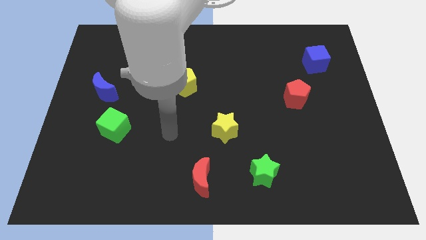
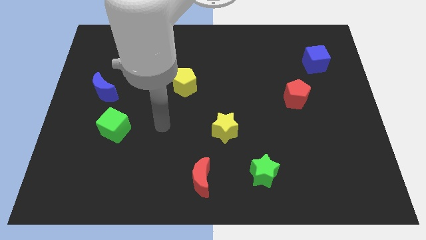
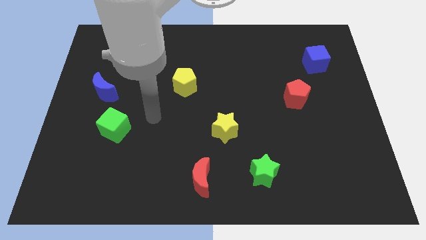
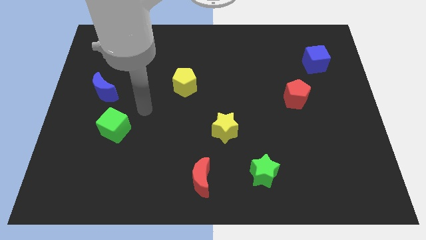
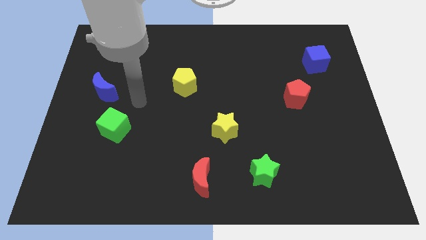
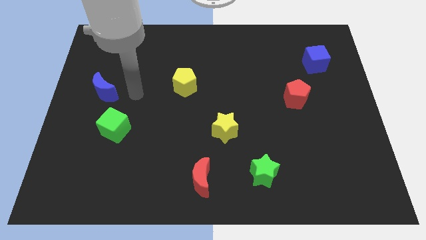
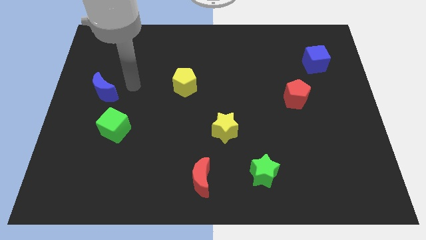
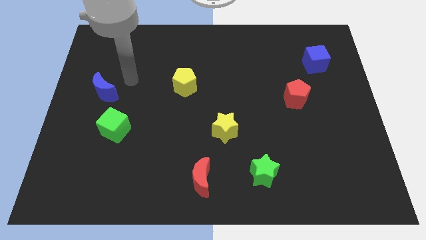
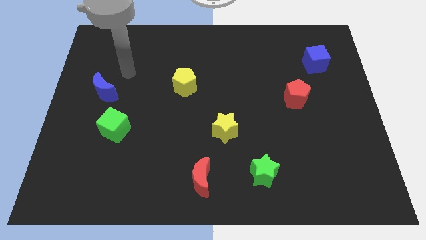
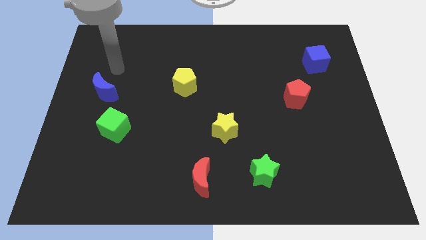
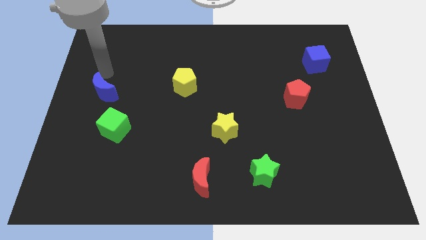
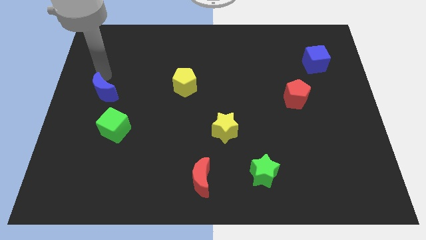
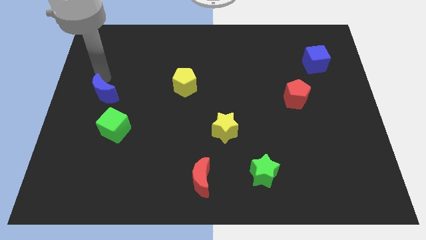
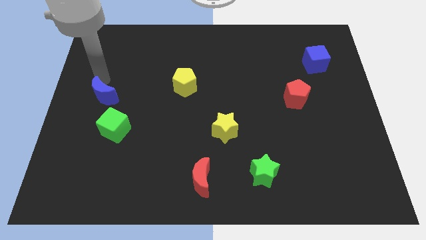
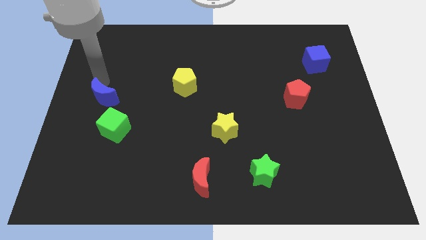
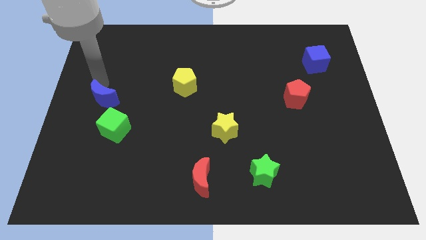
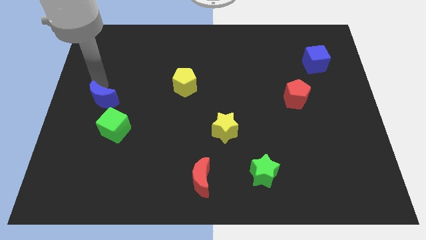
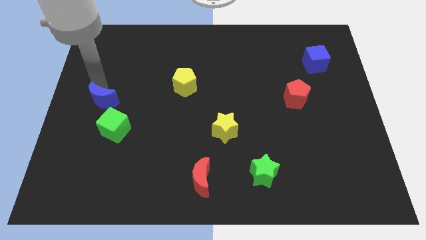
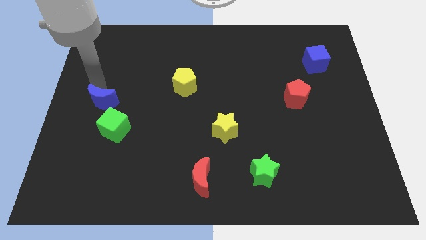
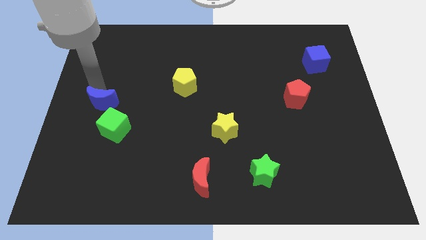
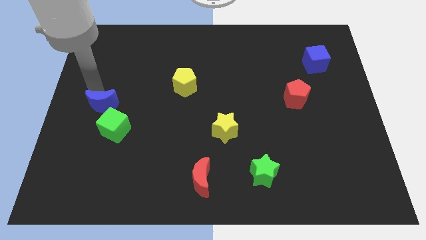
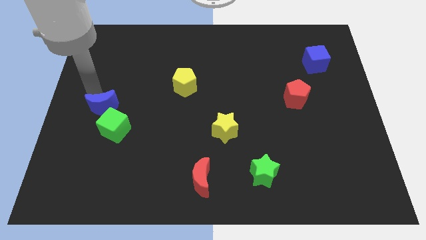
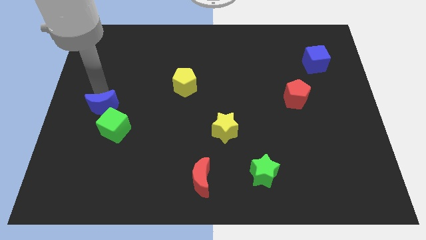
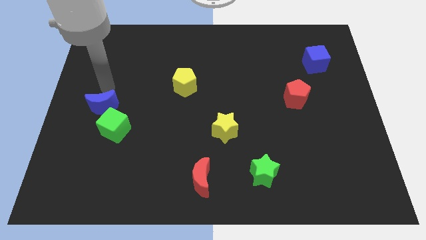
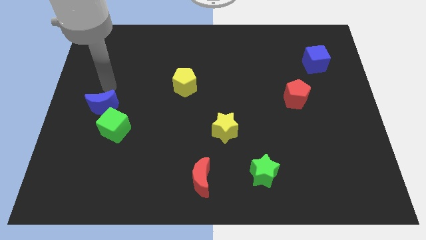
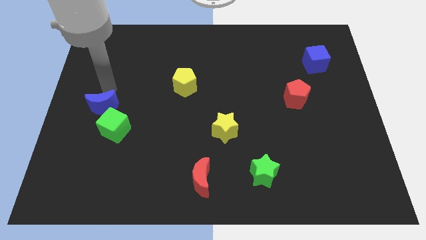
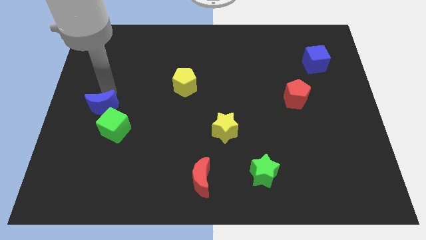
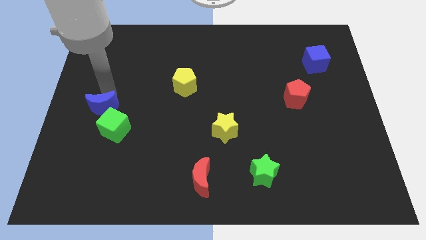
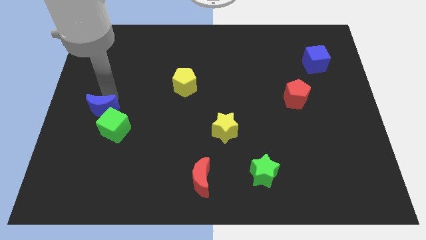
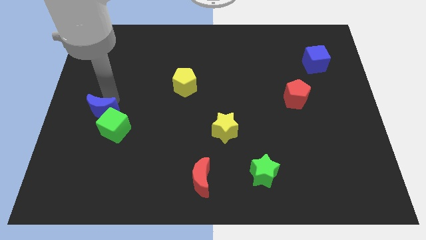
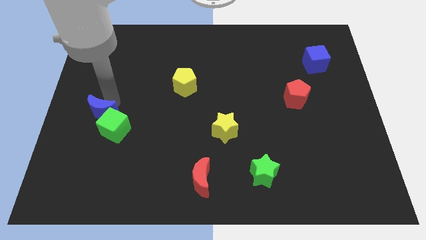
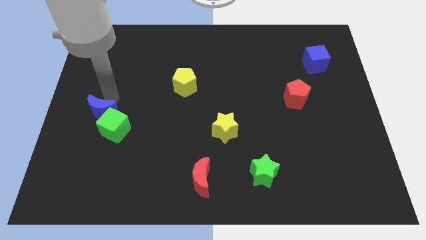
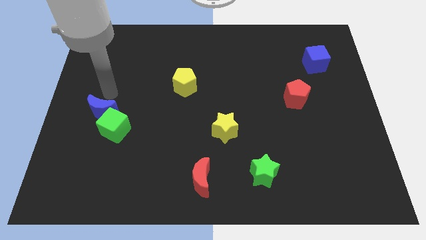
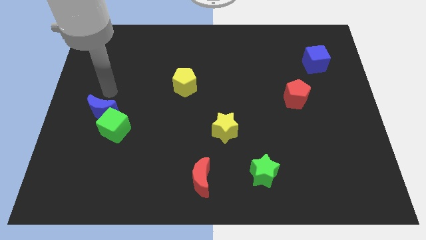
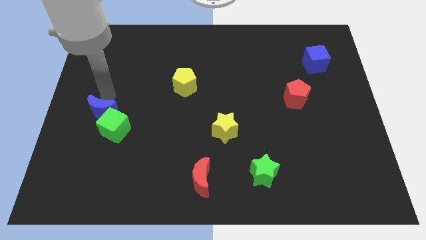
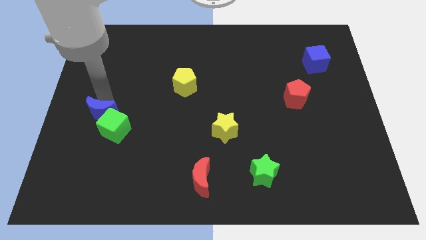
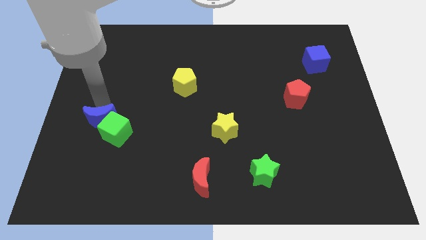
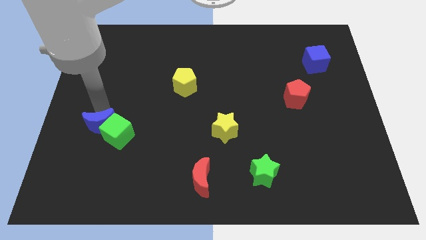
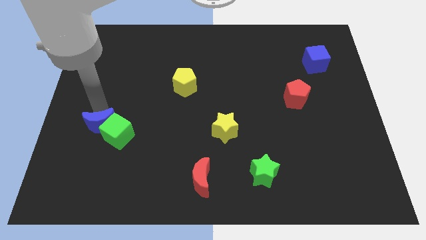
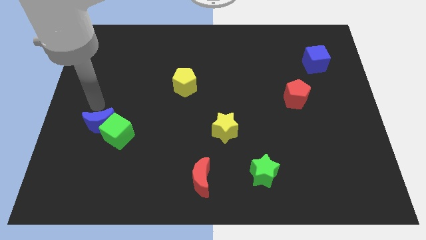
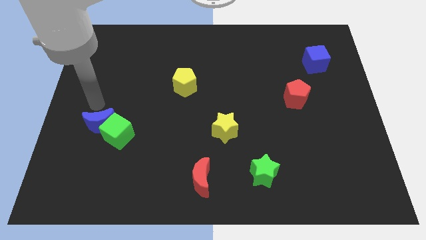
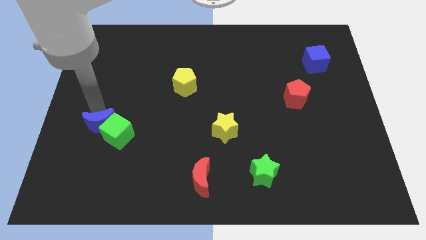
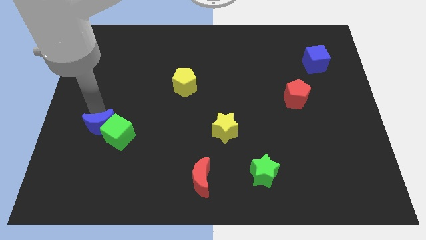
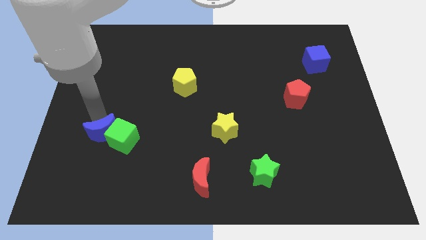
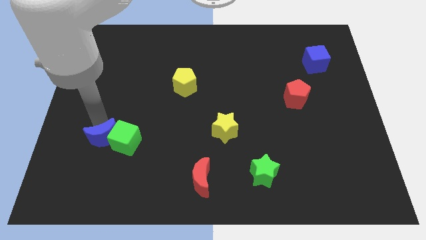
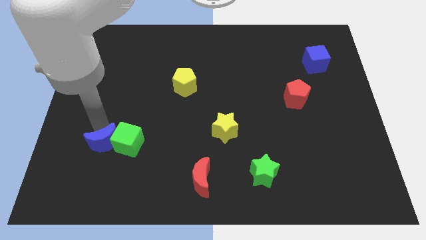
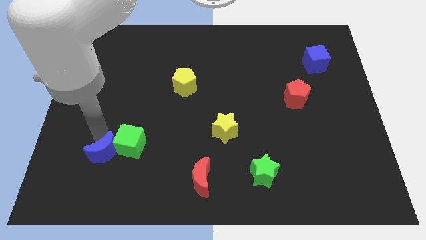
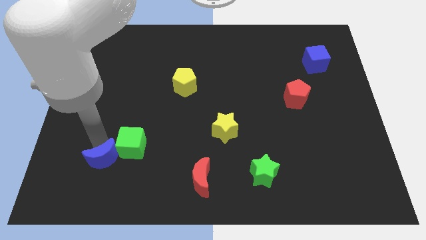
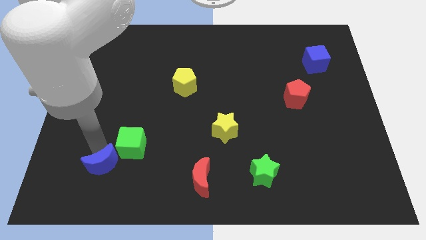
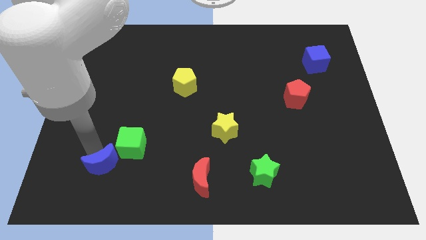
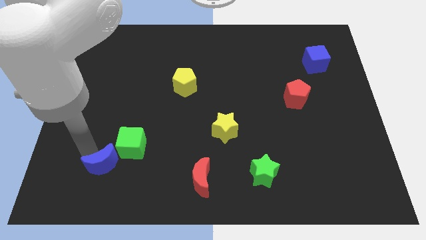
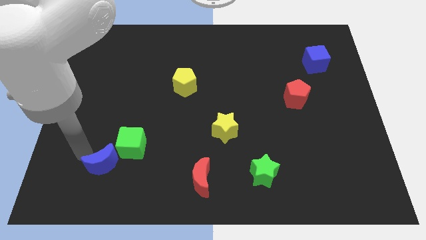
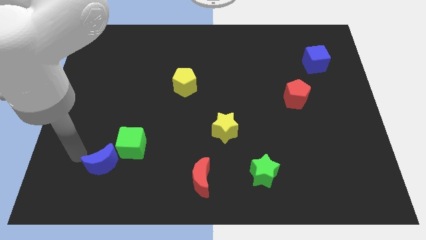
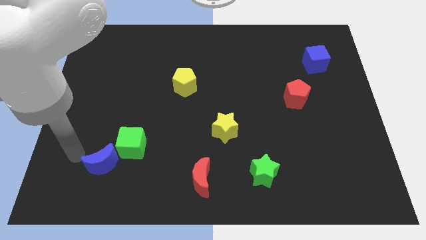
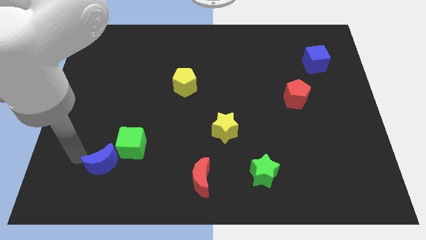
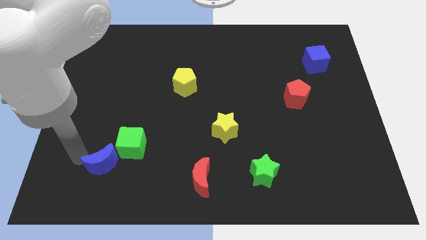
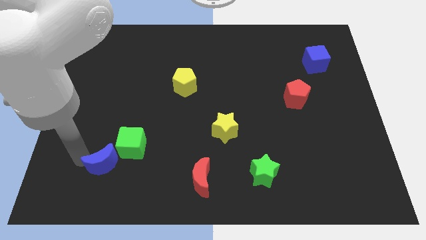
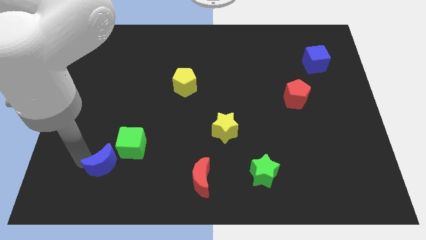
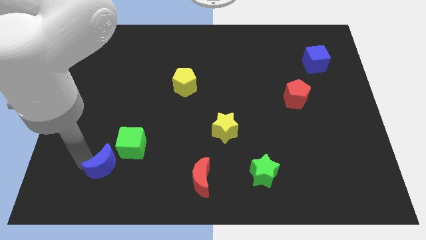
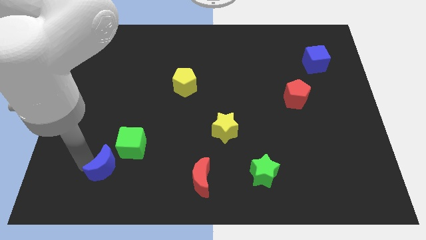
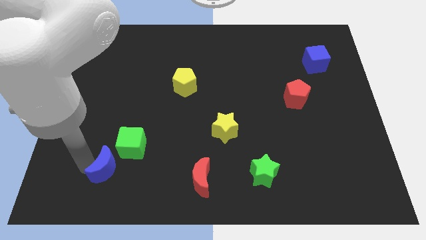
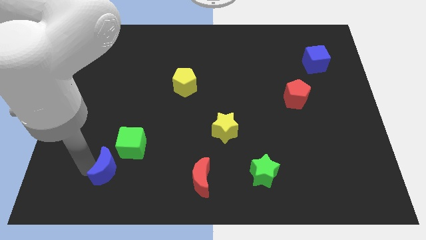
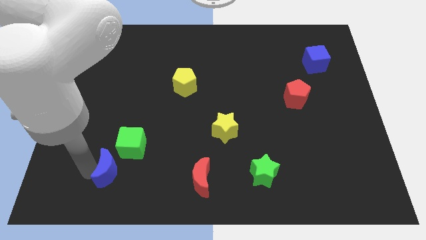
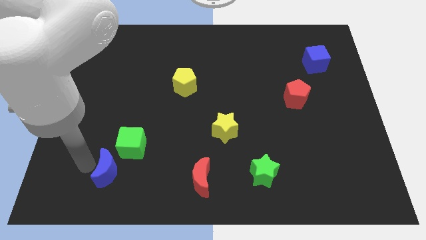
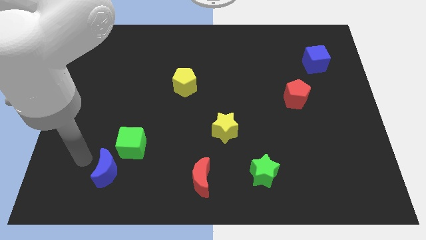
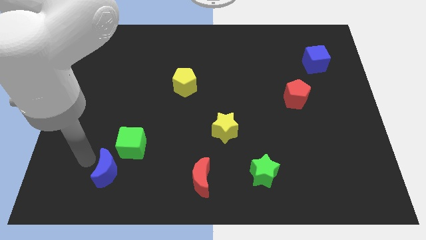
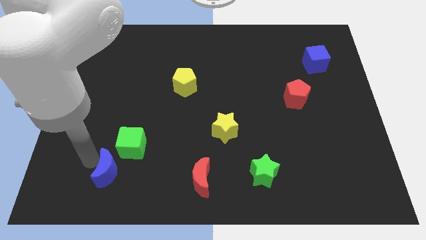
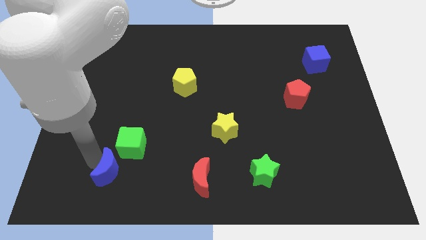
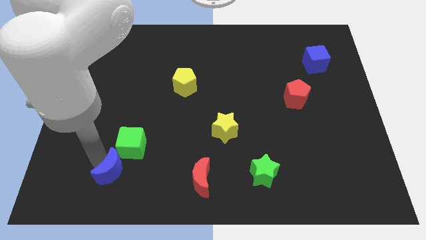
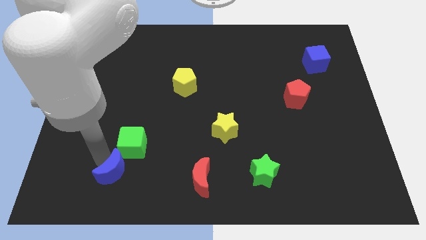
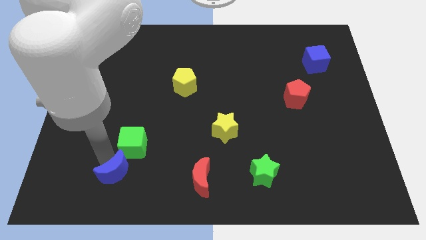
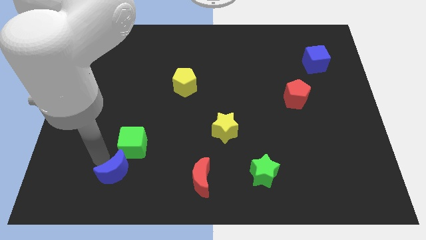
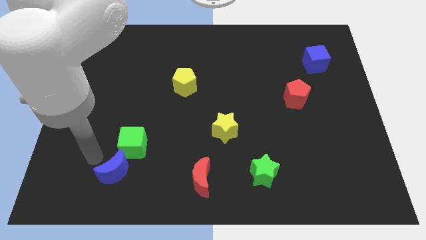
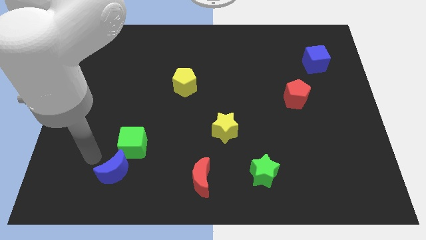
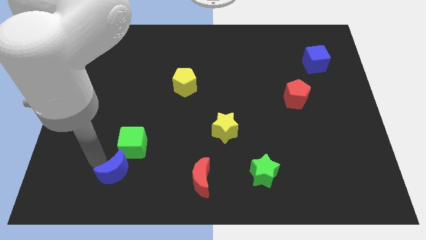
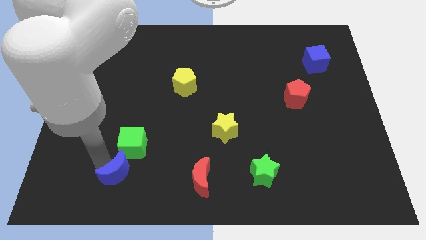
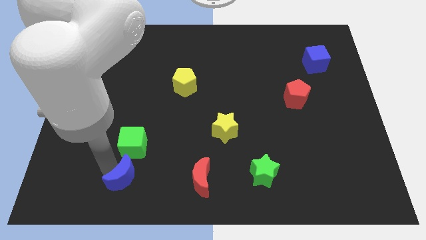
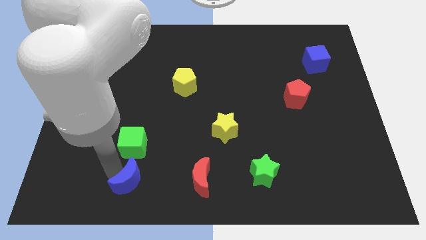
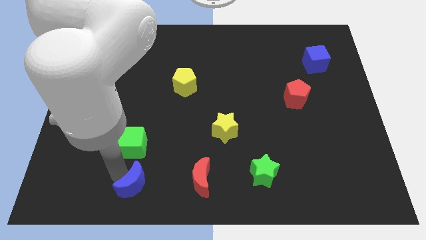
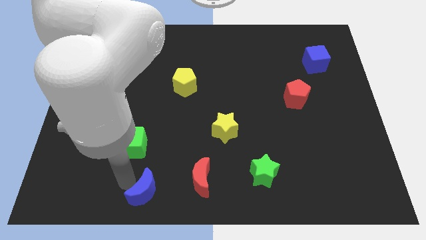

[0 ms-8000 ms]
push the blue moon to the bottom
